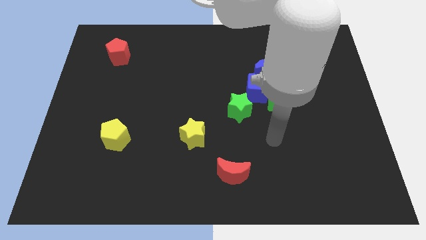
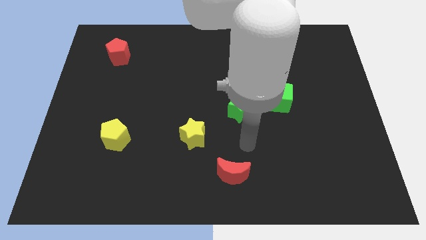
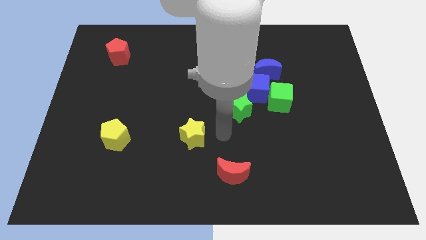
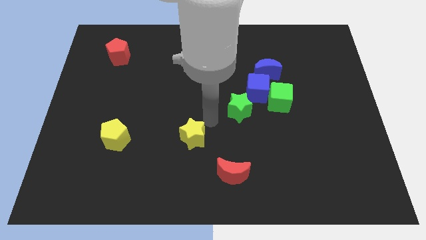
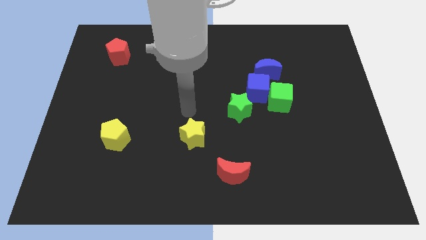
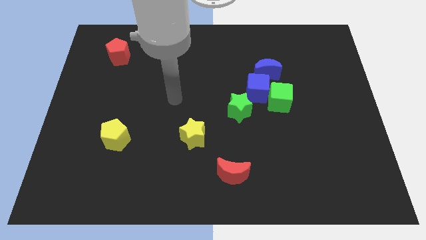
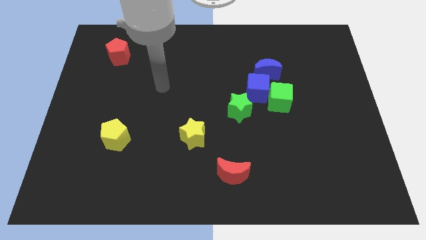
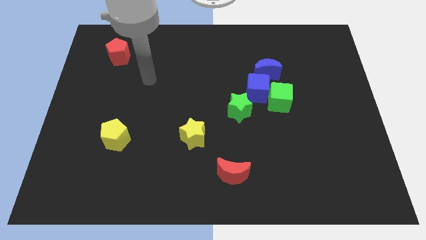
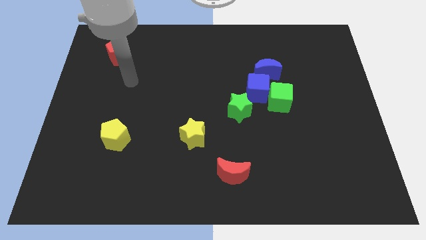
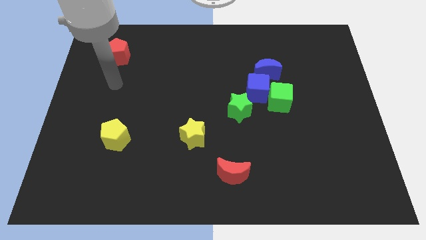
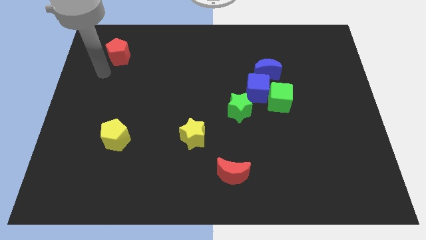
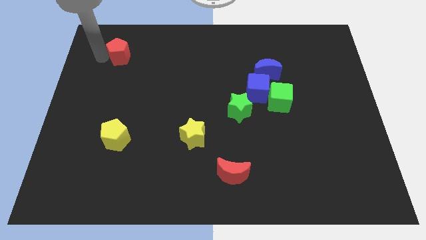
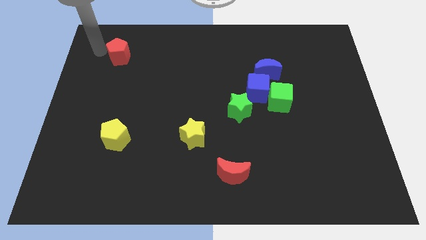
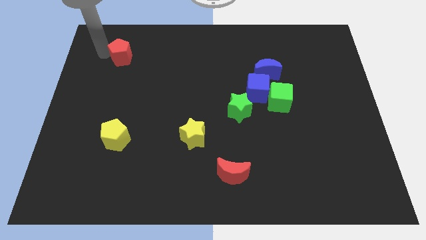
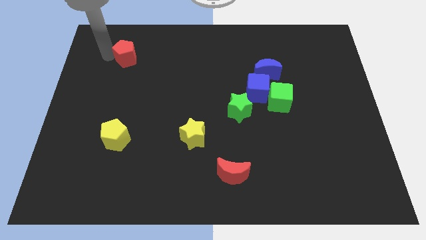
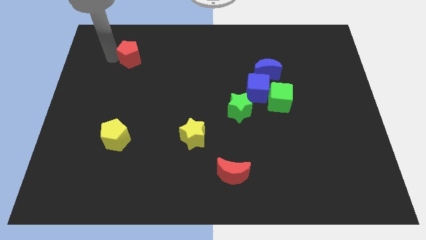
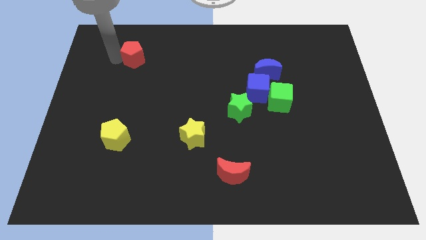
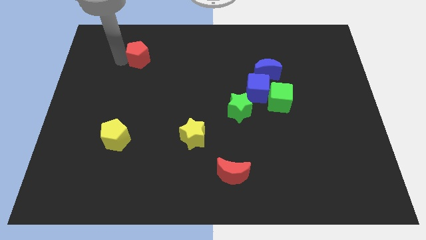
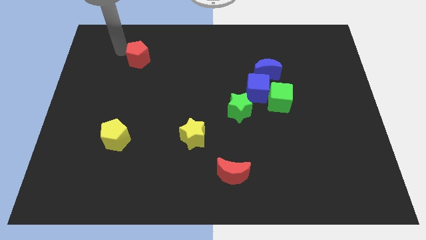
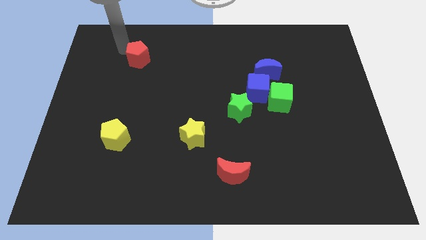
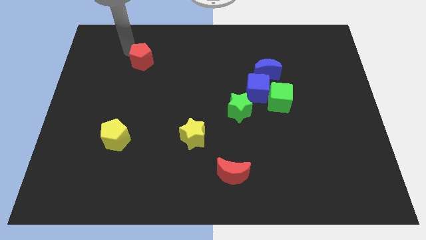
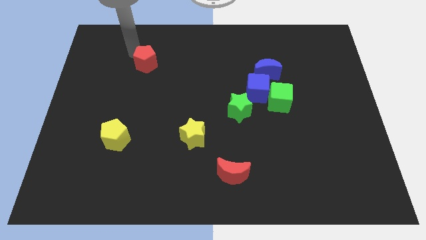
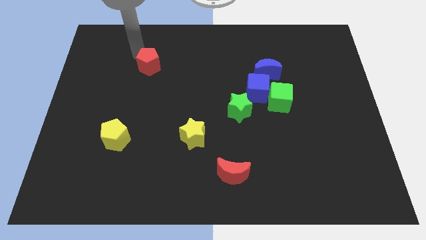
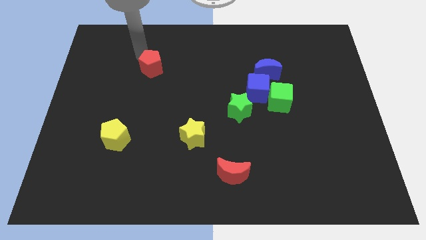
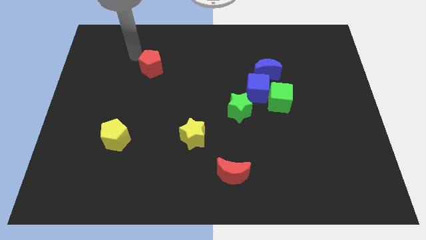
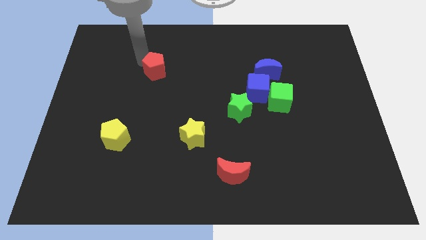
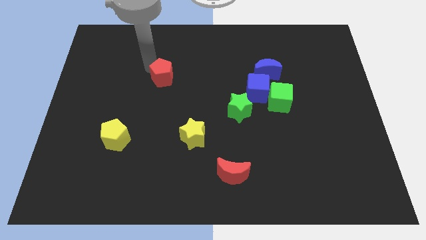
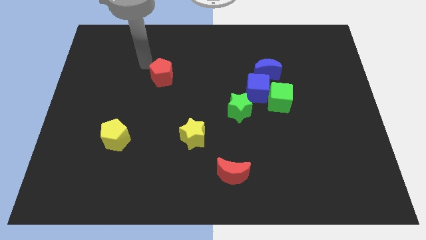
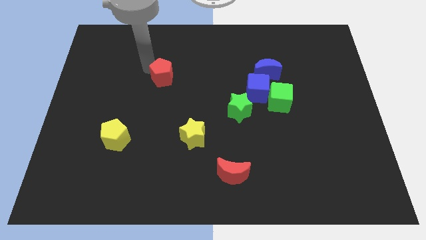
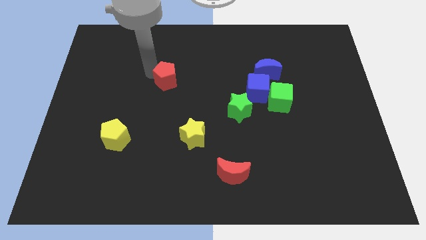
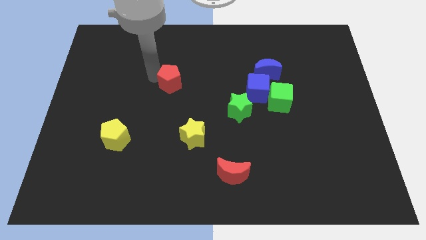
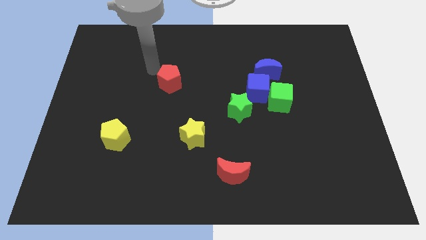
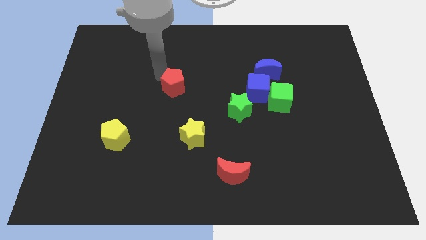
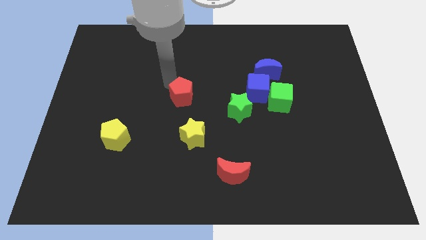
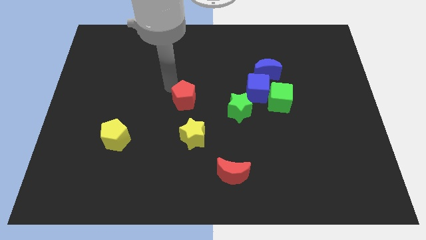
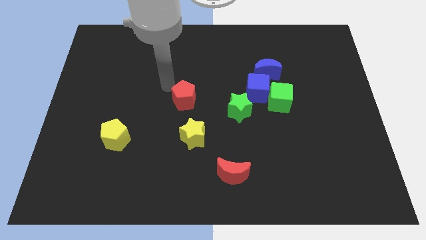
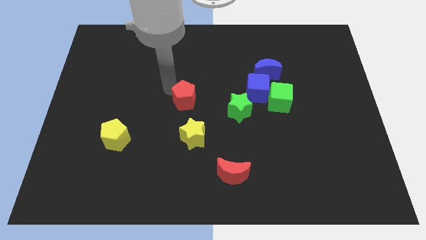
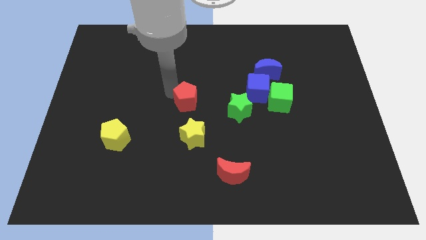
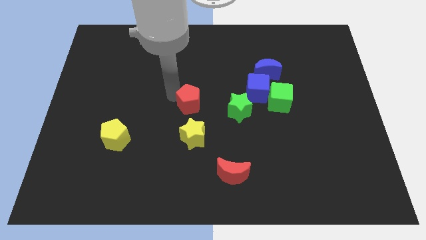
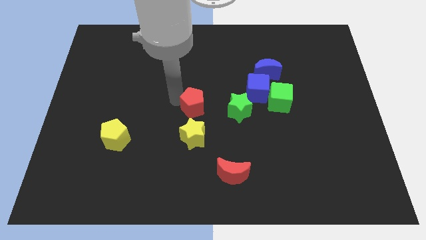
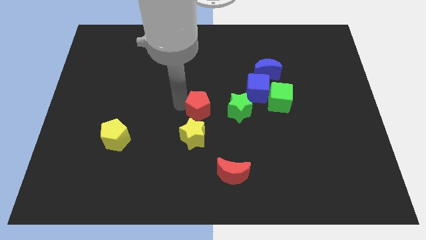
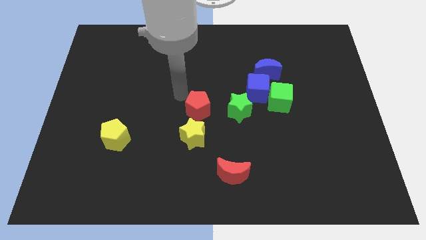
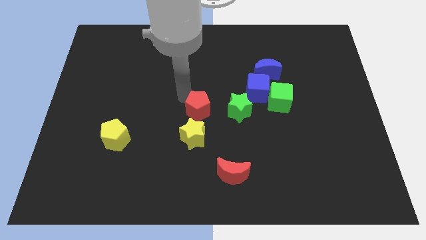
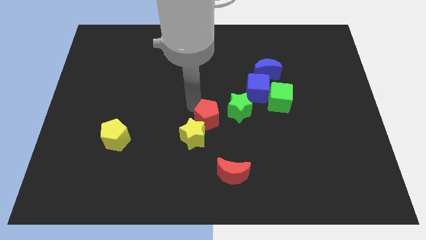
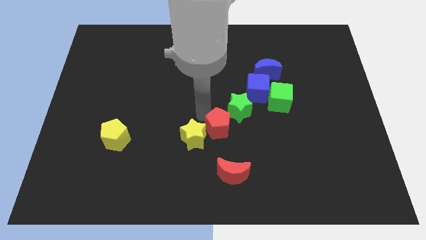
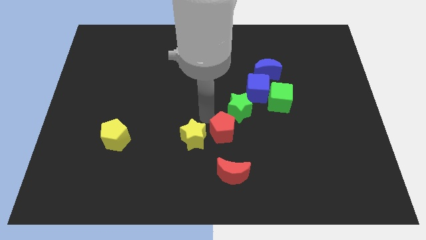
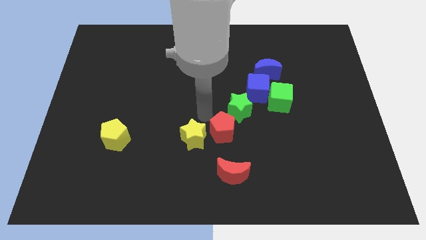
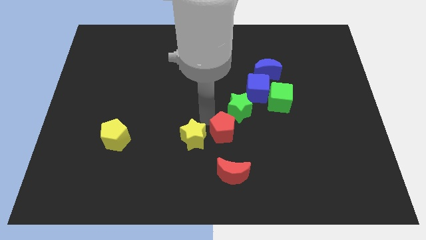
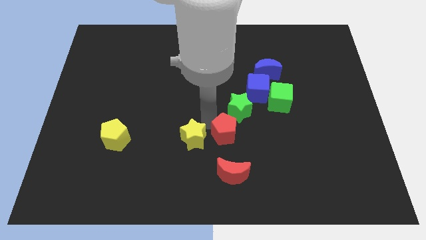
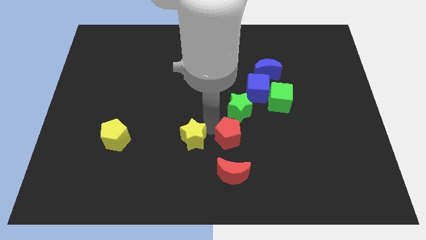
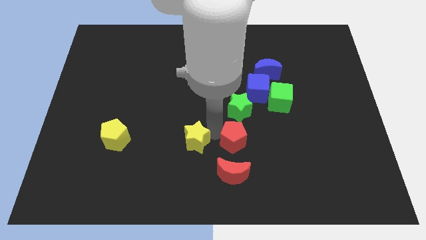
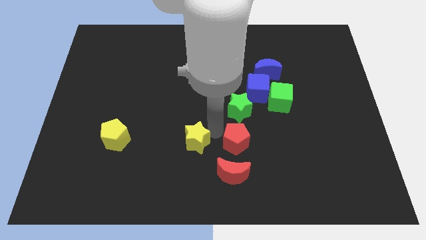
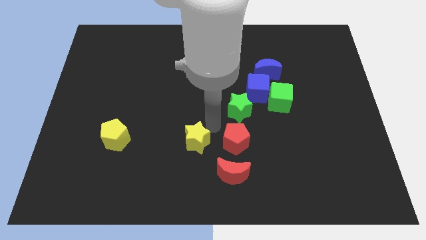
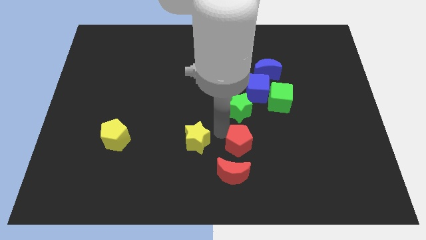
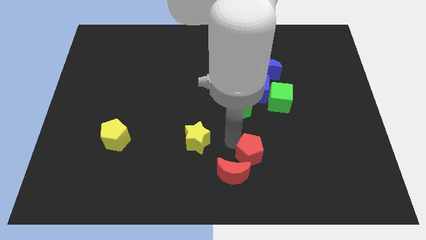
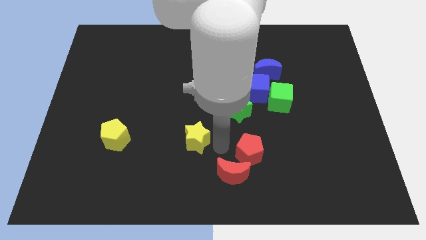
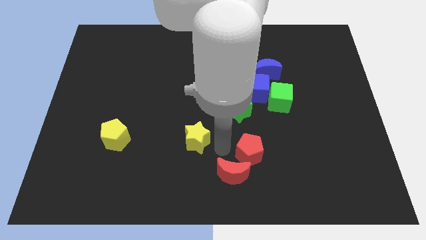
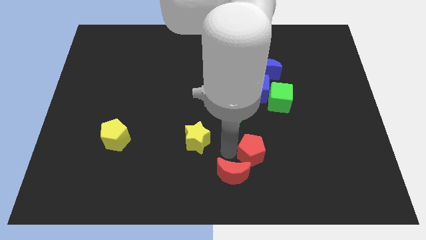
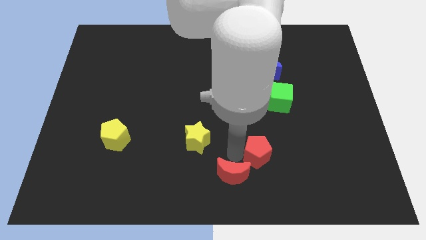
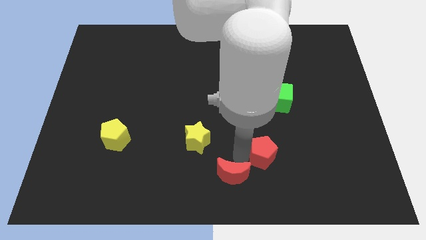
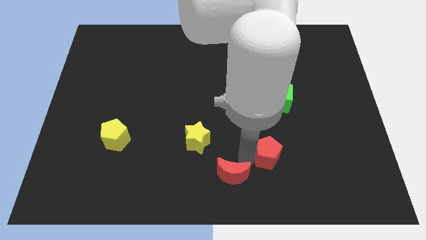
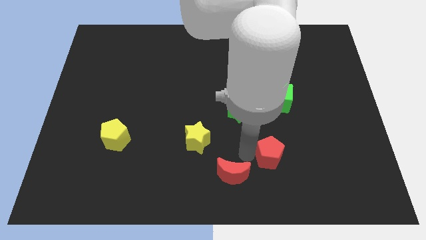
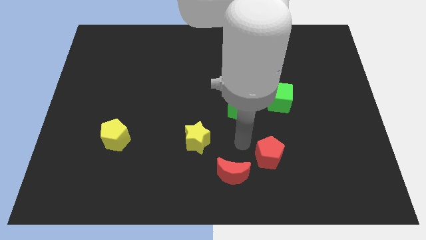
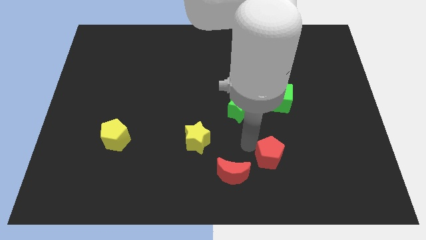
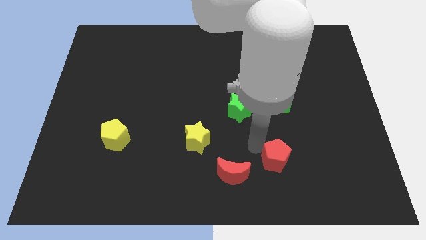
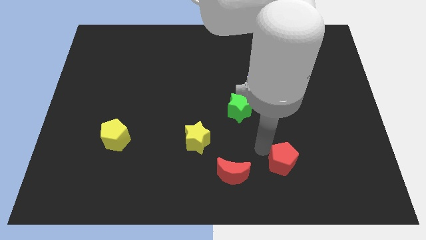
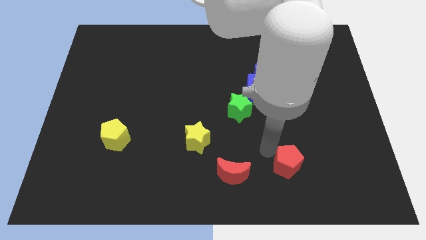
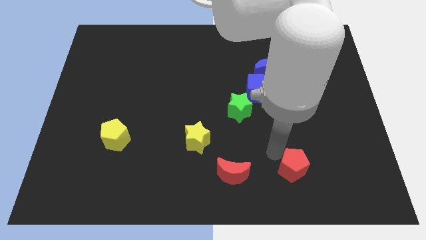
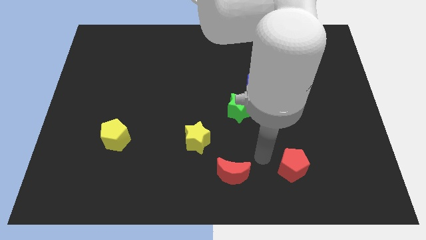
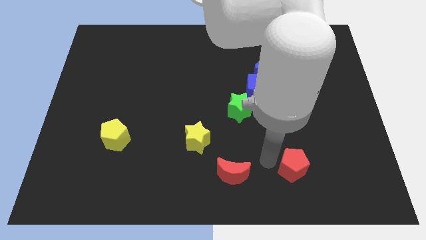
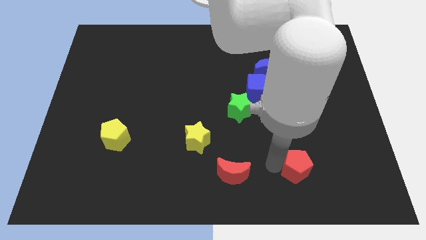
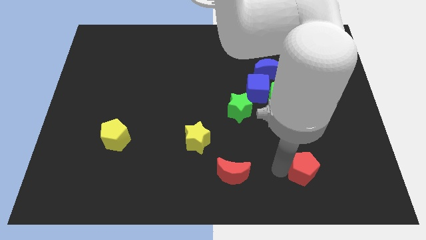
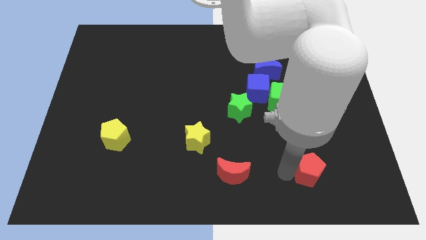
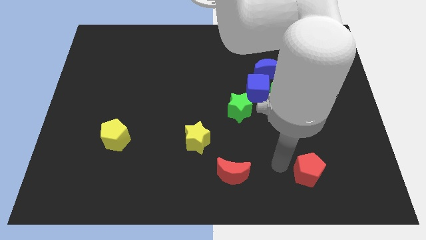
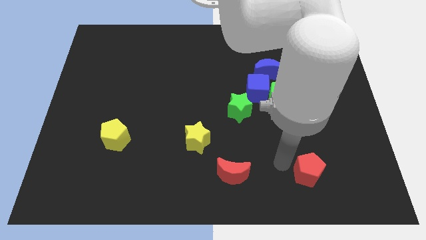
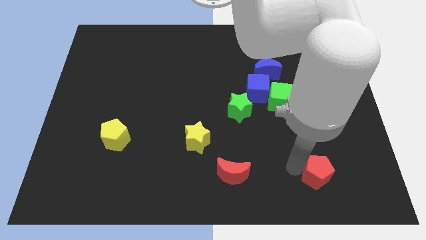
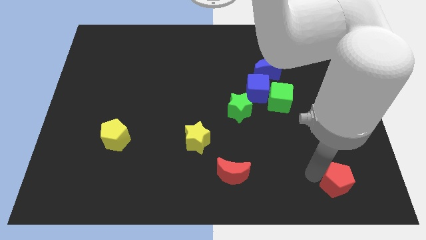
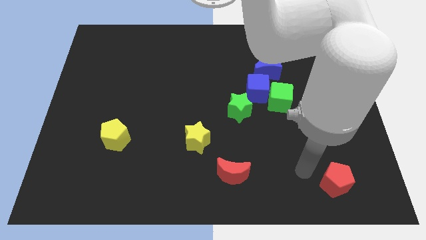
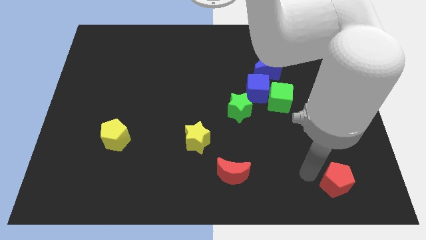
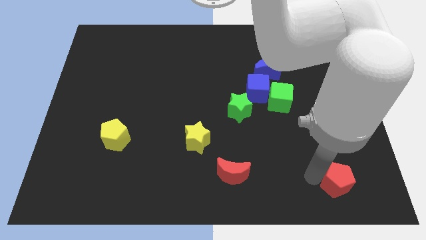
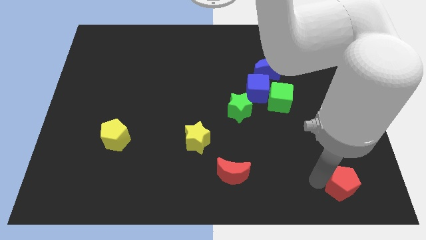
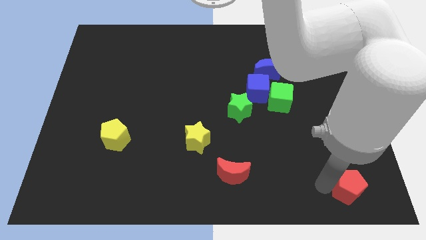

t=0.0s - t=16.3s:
move the red pentagon to the bottom right corner
